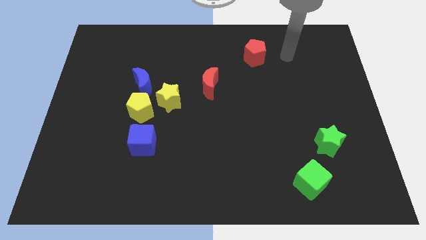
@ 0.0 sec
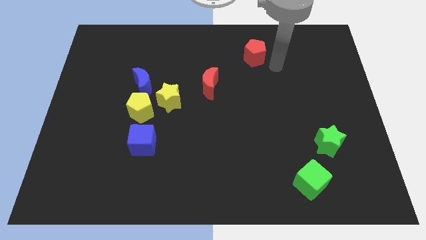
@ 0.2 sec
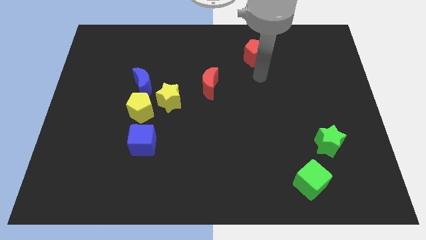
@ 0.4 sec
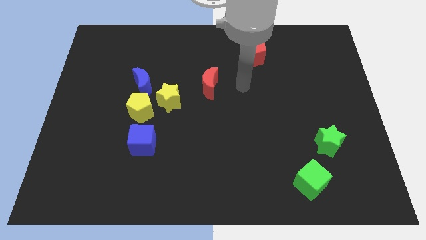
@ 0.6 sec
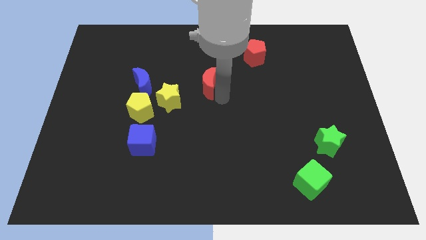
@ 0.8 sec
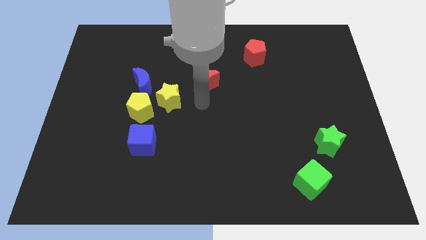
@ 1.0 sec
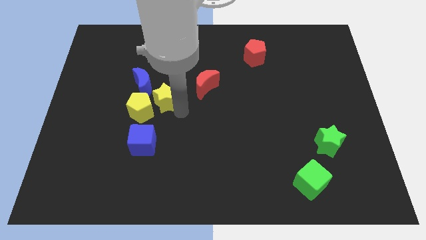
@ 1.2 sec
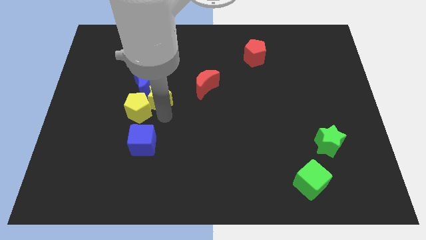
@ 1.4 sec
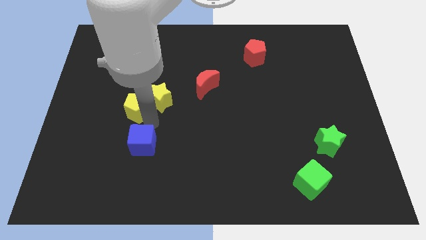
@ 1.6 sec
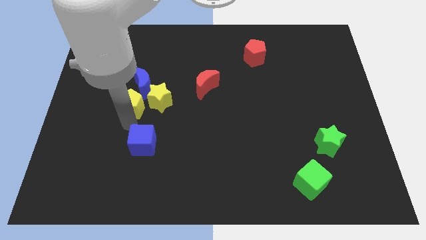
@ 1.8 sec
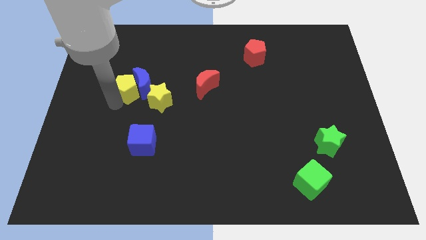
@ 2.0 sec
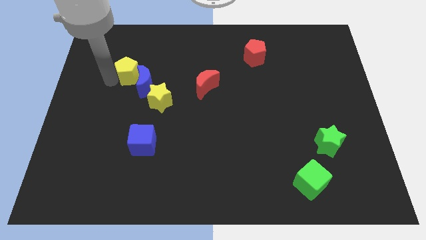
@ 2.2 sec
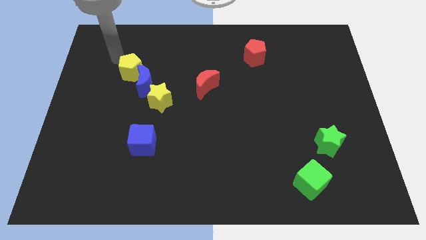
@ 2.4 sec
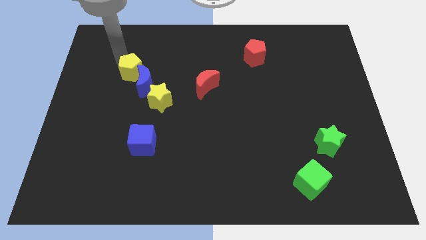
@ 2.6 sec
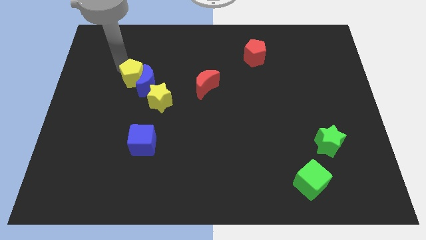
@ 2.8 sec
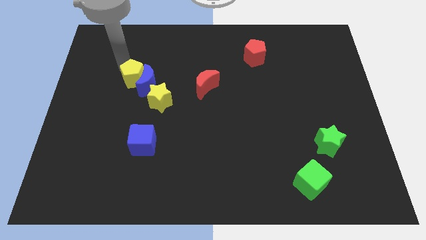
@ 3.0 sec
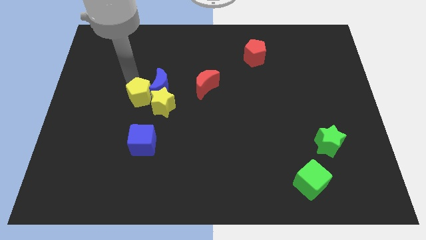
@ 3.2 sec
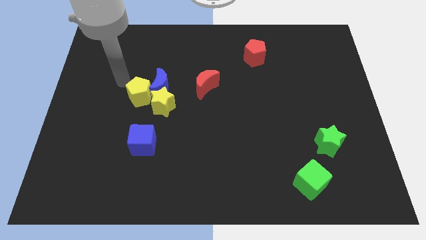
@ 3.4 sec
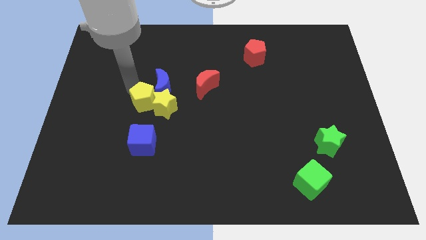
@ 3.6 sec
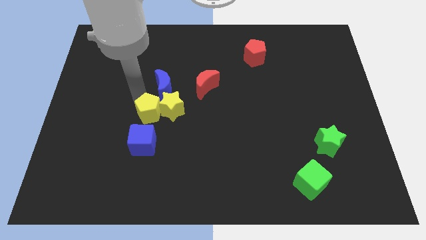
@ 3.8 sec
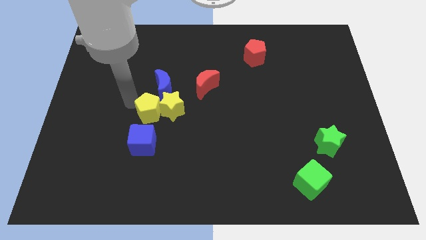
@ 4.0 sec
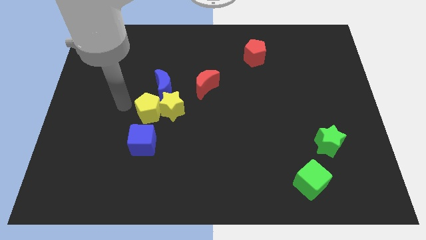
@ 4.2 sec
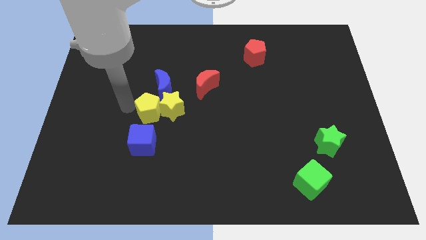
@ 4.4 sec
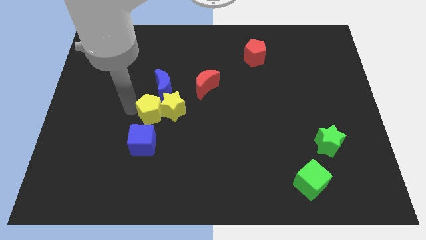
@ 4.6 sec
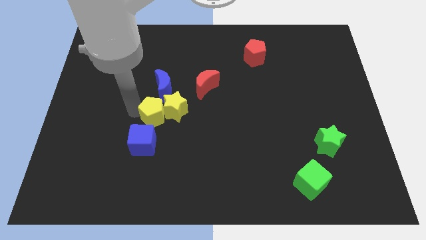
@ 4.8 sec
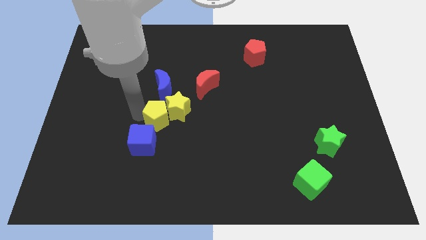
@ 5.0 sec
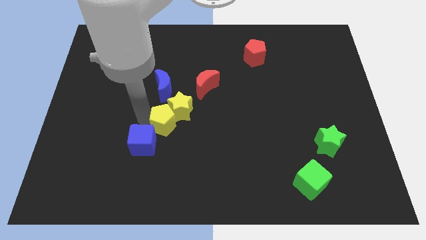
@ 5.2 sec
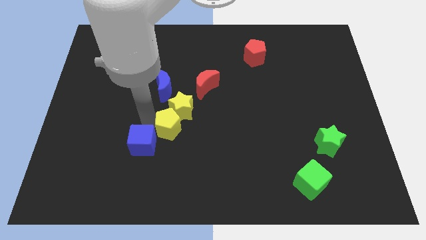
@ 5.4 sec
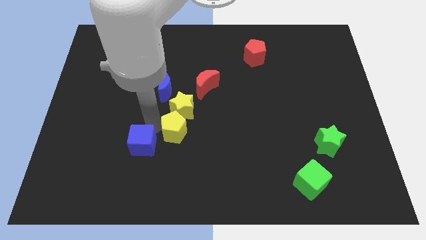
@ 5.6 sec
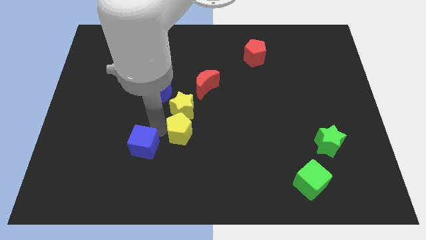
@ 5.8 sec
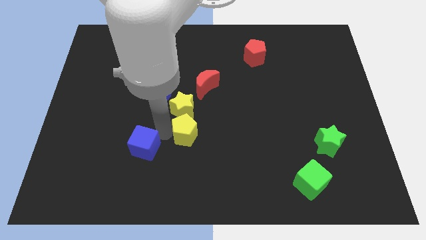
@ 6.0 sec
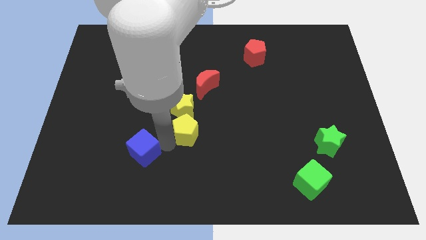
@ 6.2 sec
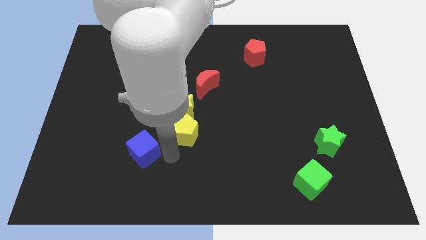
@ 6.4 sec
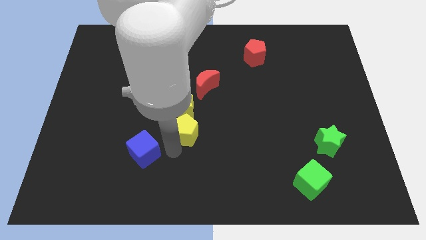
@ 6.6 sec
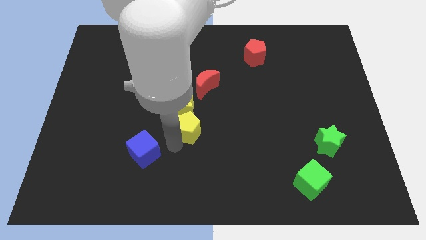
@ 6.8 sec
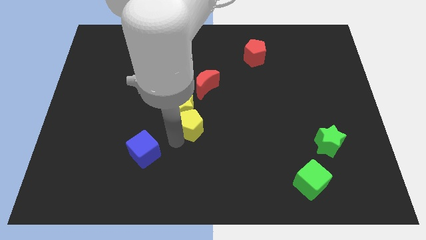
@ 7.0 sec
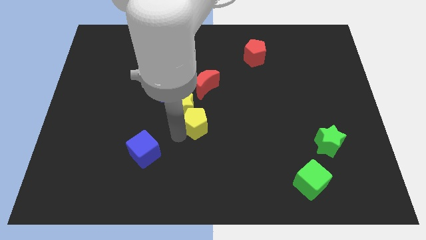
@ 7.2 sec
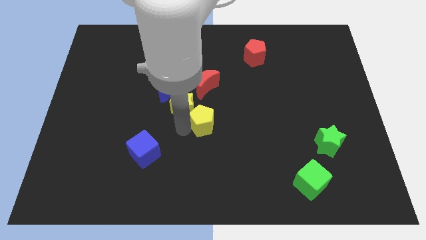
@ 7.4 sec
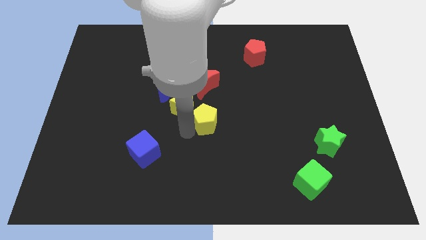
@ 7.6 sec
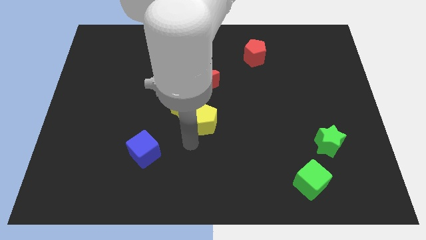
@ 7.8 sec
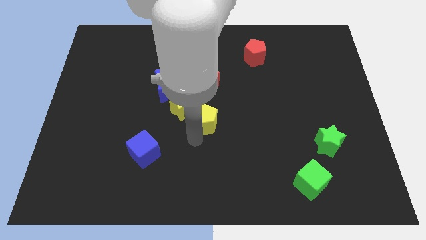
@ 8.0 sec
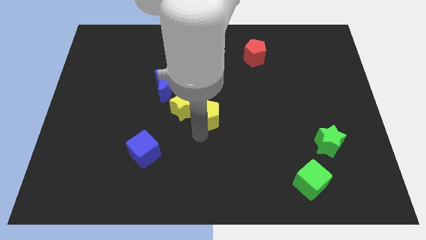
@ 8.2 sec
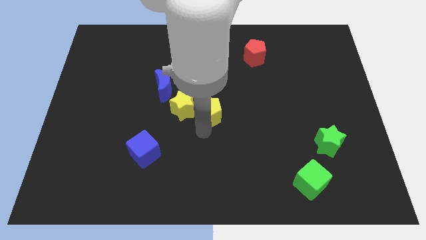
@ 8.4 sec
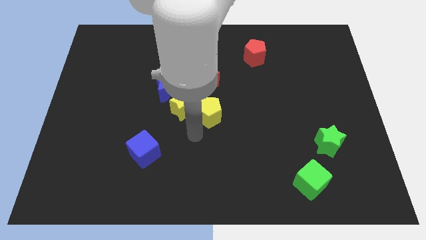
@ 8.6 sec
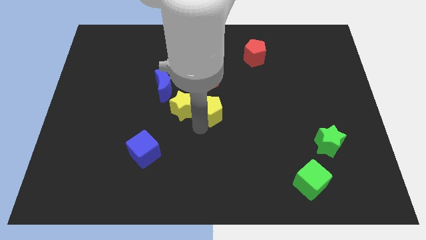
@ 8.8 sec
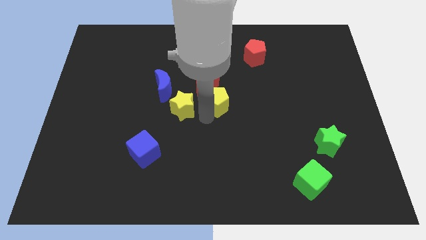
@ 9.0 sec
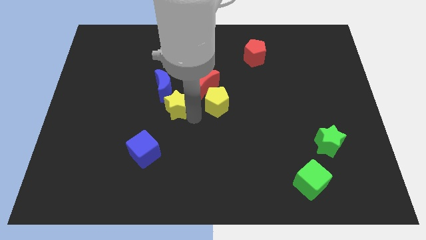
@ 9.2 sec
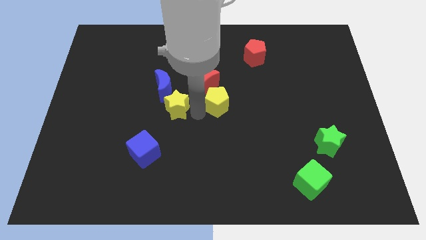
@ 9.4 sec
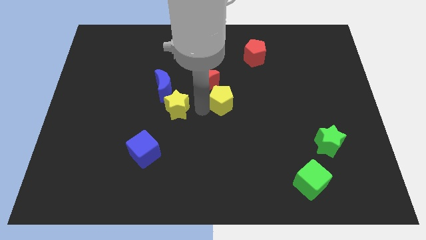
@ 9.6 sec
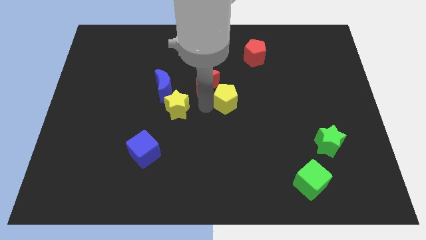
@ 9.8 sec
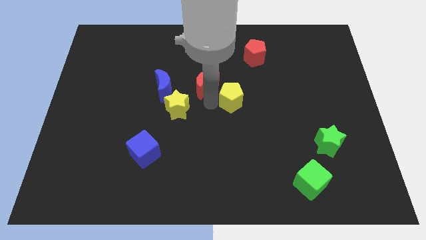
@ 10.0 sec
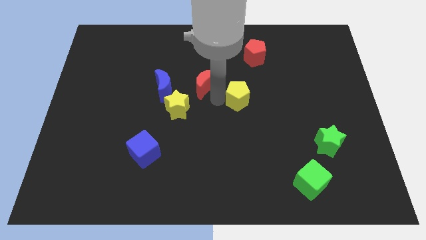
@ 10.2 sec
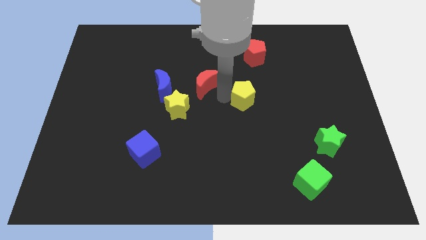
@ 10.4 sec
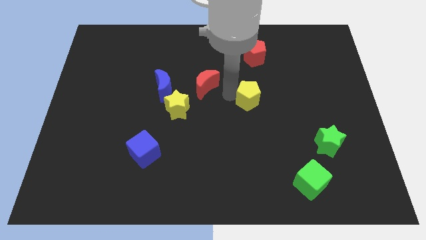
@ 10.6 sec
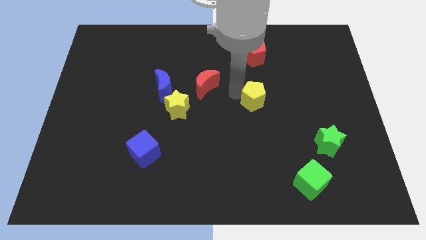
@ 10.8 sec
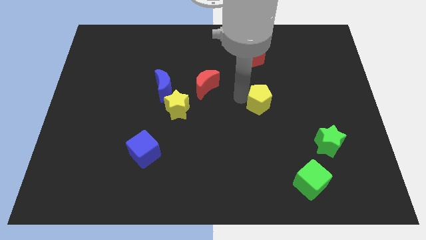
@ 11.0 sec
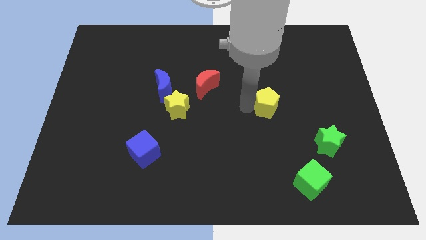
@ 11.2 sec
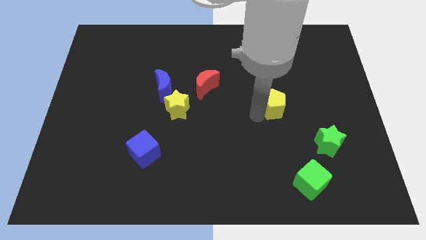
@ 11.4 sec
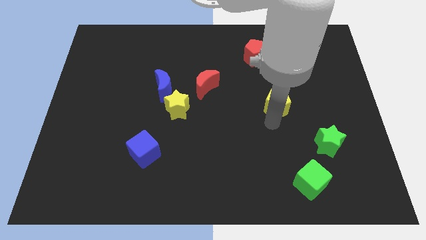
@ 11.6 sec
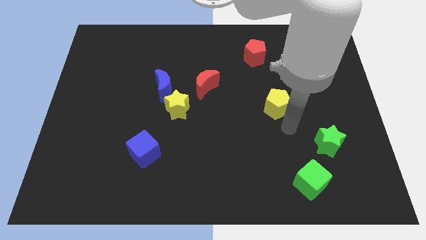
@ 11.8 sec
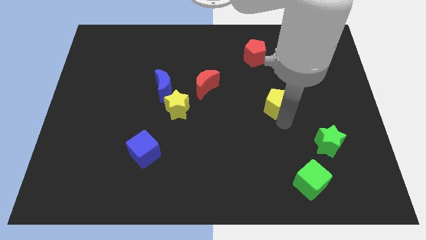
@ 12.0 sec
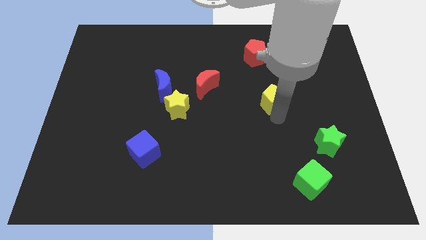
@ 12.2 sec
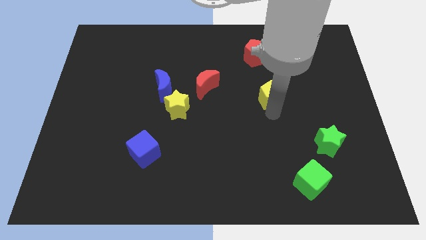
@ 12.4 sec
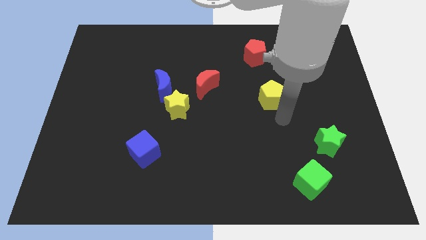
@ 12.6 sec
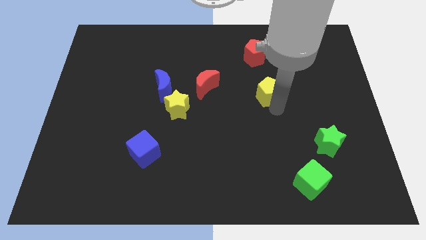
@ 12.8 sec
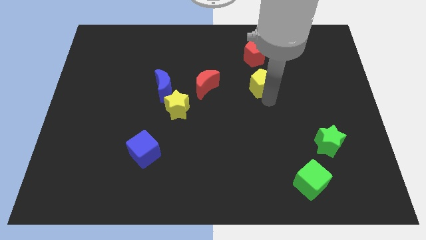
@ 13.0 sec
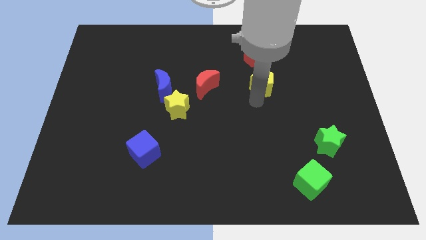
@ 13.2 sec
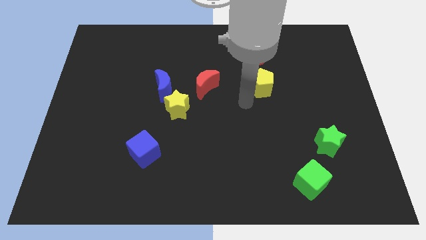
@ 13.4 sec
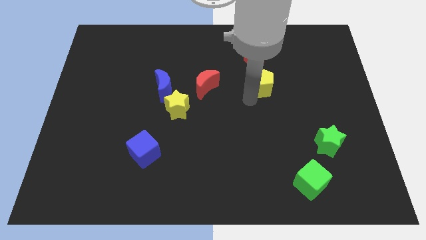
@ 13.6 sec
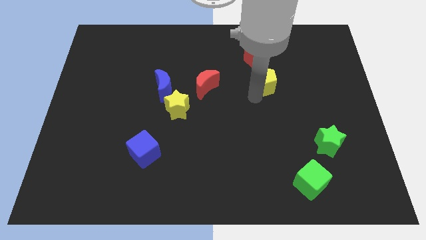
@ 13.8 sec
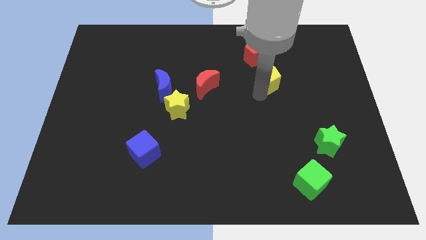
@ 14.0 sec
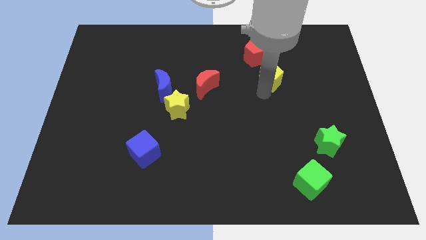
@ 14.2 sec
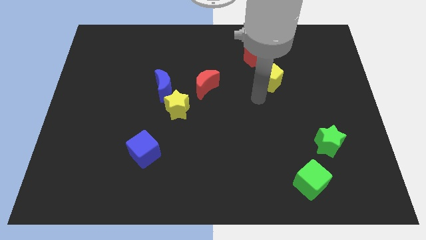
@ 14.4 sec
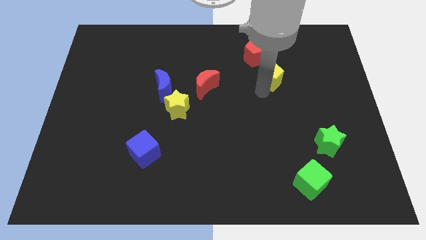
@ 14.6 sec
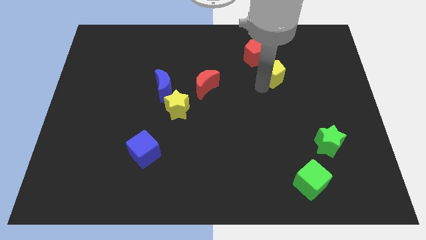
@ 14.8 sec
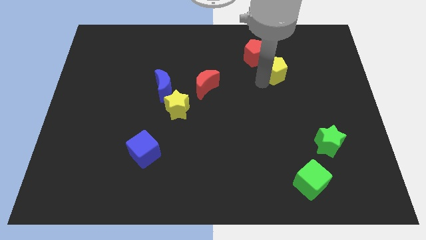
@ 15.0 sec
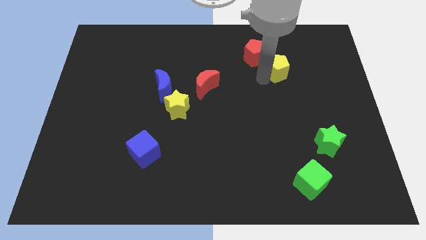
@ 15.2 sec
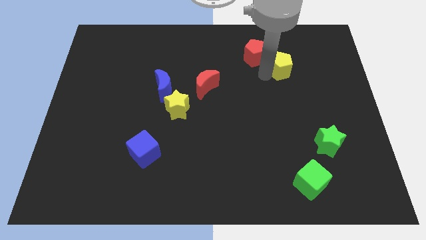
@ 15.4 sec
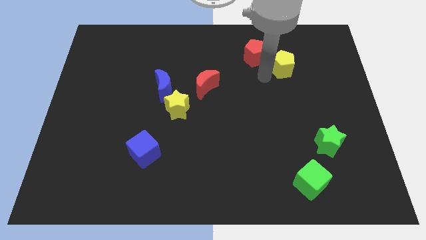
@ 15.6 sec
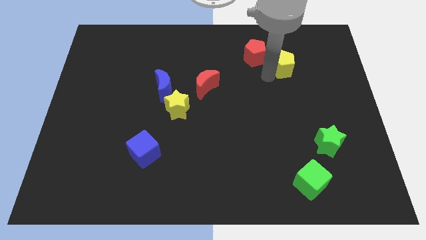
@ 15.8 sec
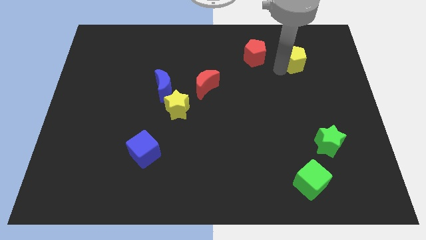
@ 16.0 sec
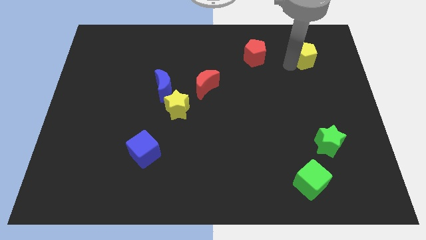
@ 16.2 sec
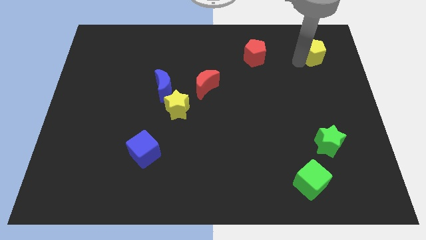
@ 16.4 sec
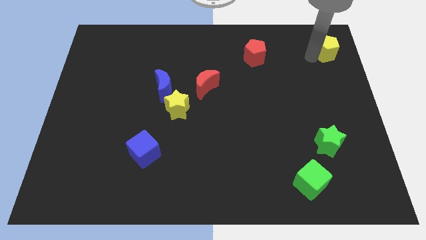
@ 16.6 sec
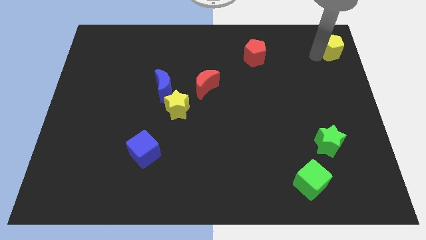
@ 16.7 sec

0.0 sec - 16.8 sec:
slide the yellow pentagon to the top right
